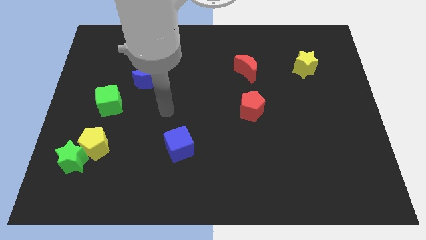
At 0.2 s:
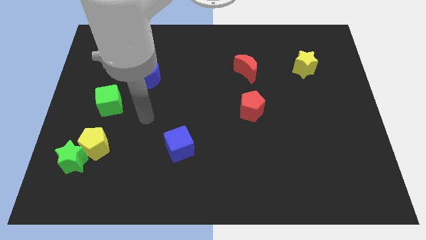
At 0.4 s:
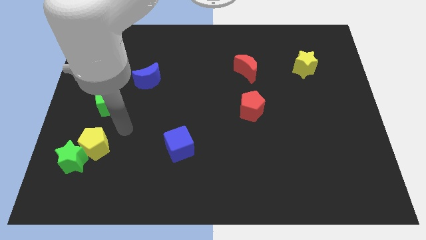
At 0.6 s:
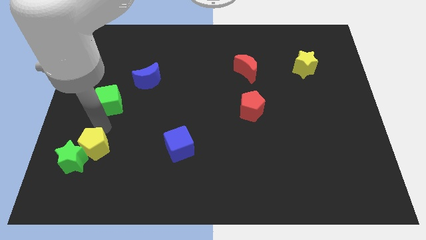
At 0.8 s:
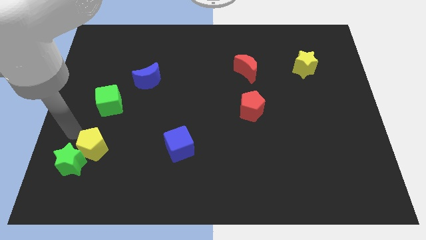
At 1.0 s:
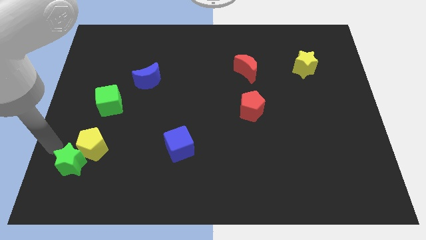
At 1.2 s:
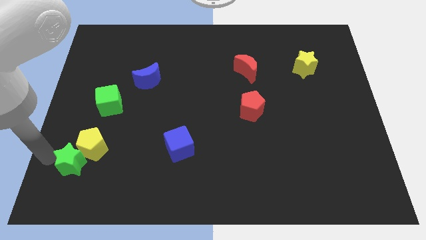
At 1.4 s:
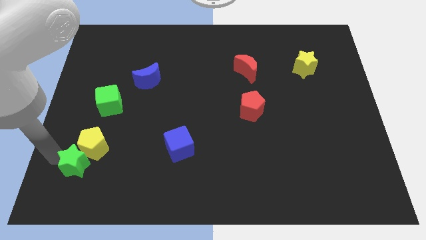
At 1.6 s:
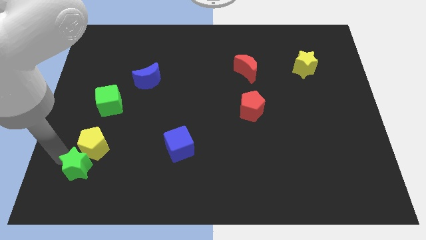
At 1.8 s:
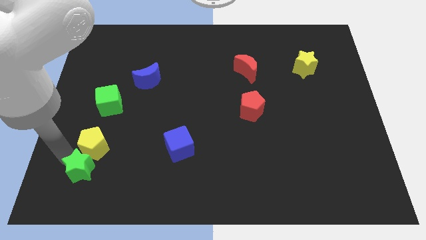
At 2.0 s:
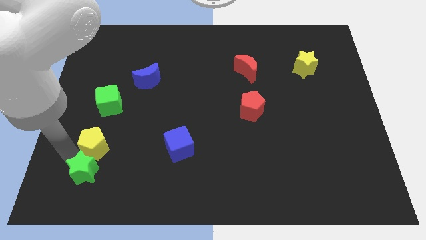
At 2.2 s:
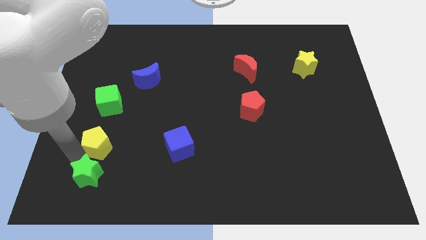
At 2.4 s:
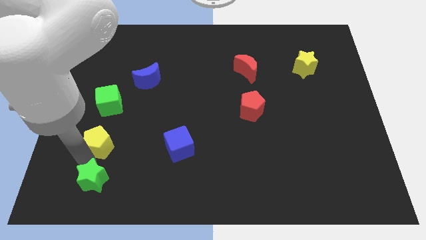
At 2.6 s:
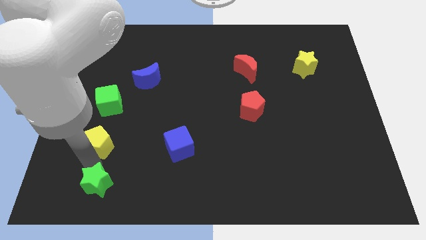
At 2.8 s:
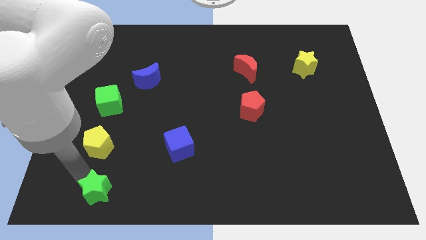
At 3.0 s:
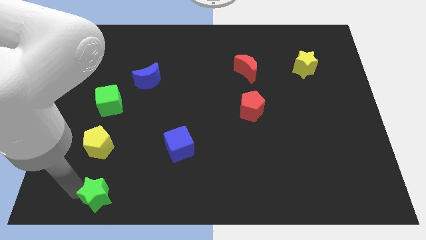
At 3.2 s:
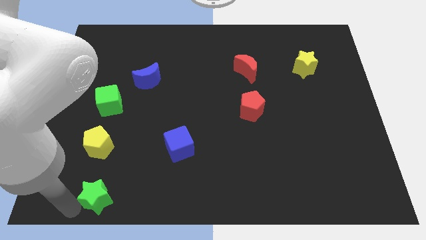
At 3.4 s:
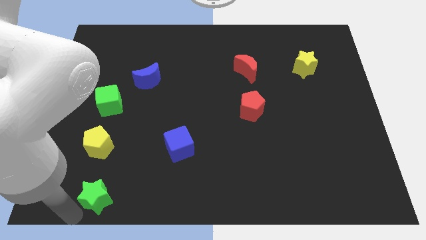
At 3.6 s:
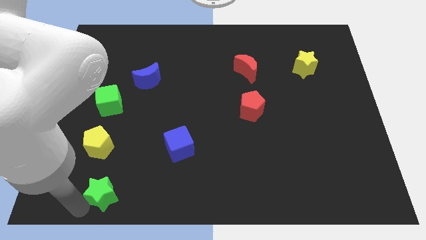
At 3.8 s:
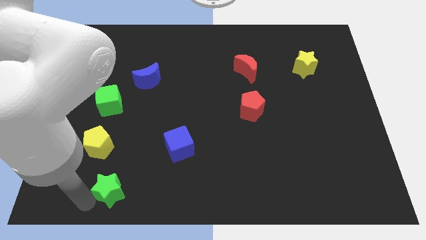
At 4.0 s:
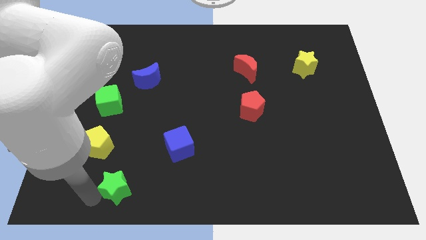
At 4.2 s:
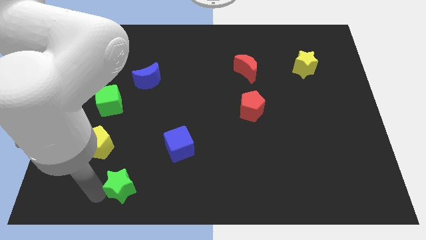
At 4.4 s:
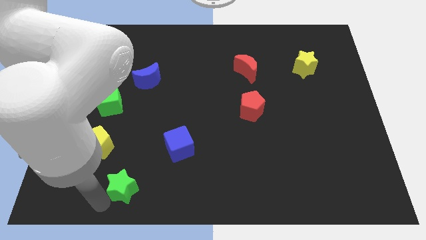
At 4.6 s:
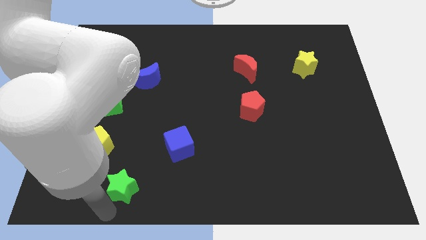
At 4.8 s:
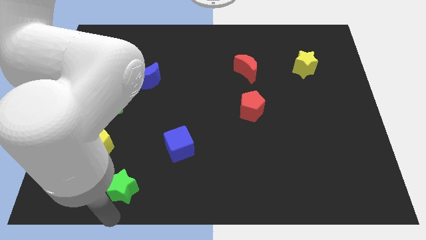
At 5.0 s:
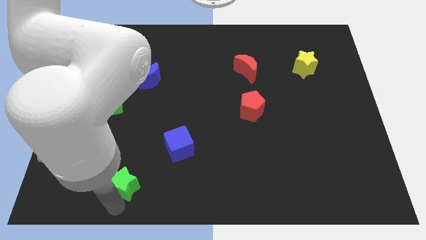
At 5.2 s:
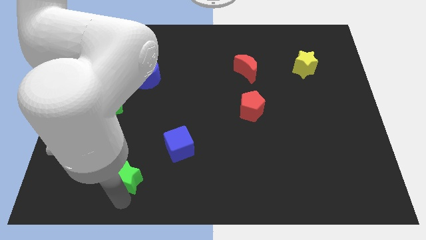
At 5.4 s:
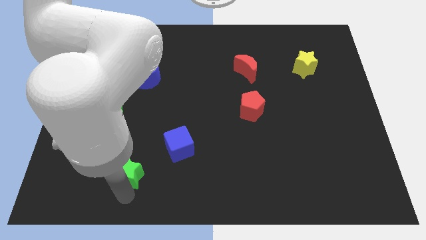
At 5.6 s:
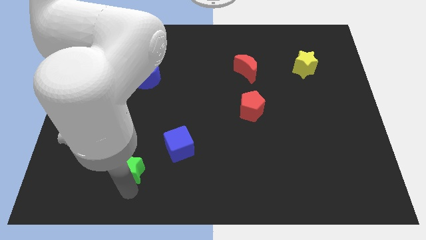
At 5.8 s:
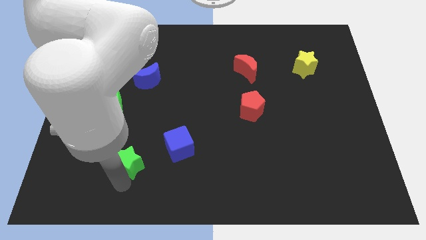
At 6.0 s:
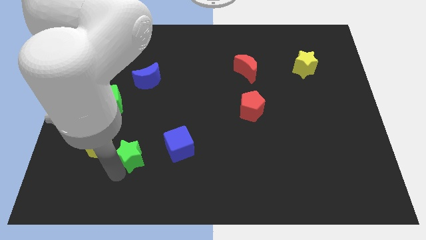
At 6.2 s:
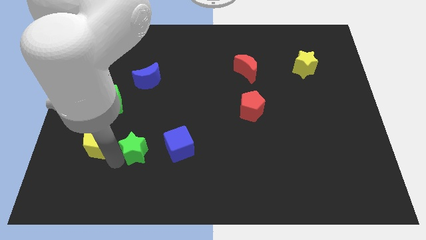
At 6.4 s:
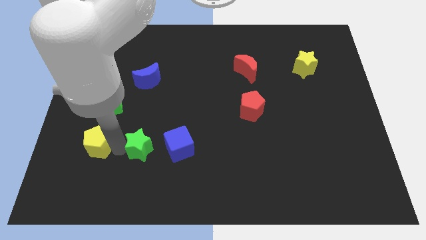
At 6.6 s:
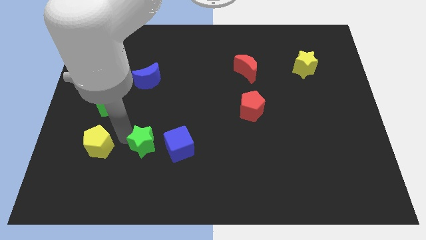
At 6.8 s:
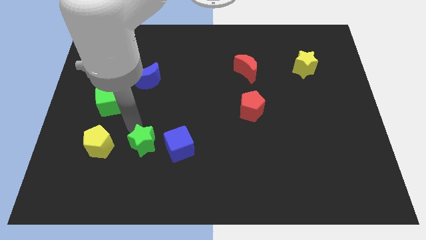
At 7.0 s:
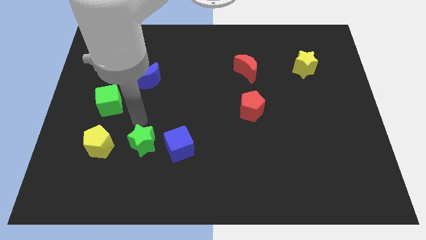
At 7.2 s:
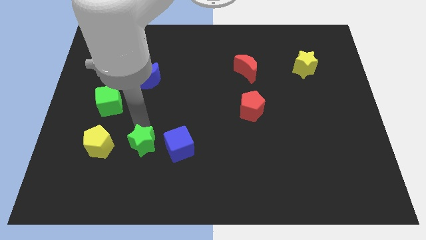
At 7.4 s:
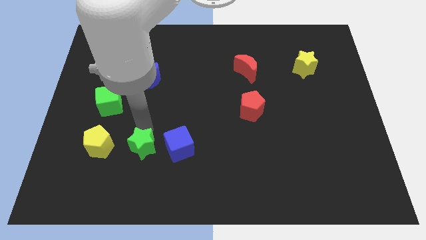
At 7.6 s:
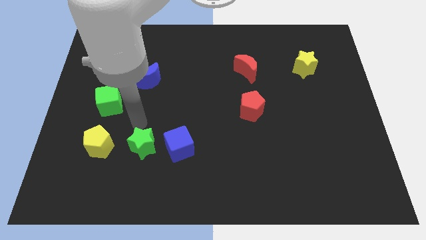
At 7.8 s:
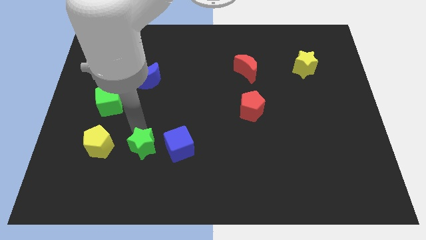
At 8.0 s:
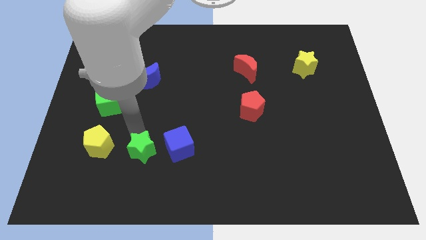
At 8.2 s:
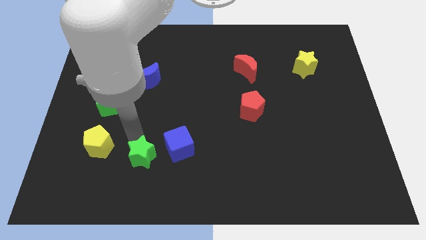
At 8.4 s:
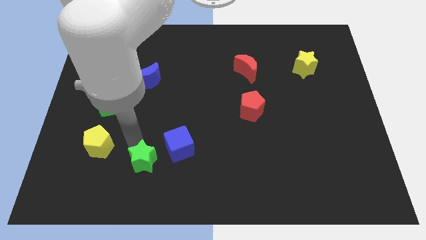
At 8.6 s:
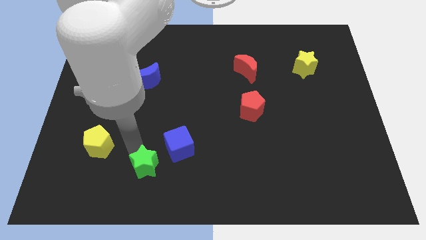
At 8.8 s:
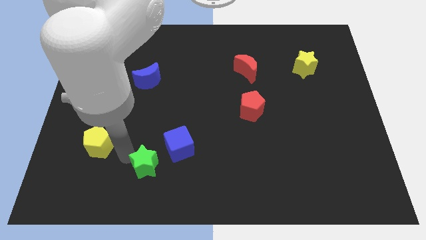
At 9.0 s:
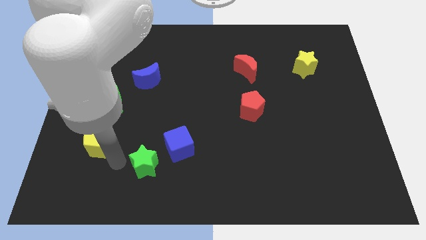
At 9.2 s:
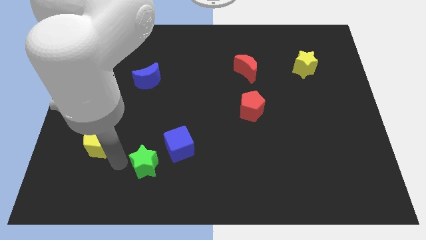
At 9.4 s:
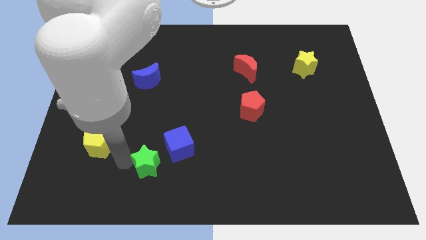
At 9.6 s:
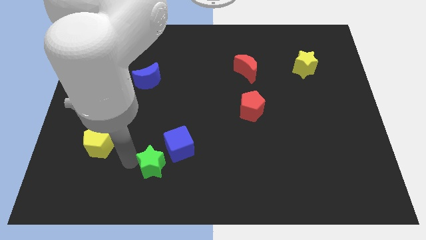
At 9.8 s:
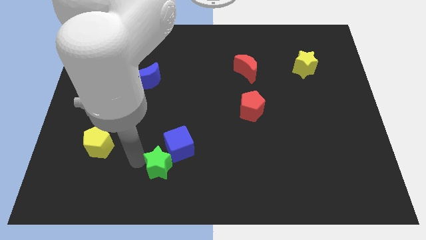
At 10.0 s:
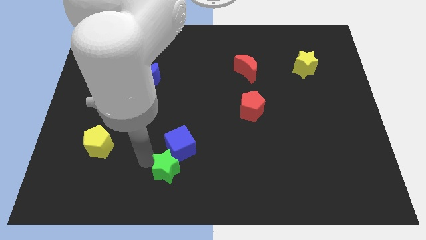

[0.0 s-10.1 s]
slide the green star right

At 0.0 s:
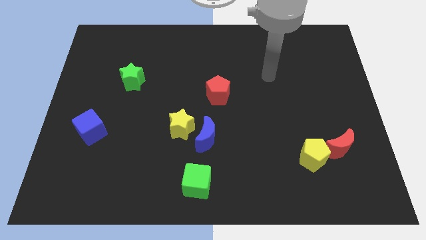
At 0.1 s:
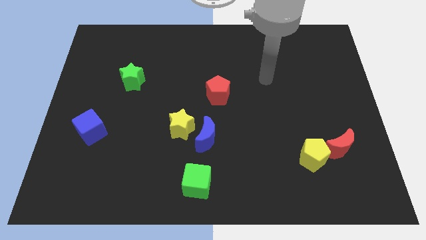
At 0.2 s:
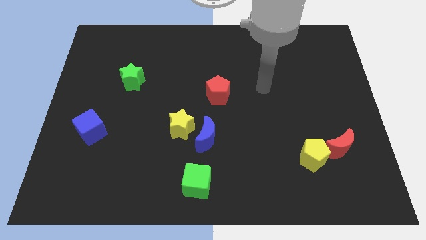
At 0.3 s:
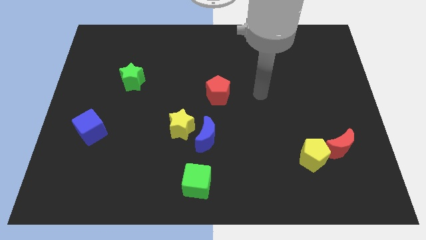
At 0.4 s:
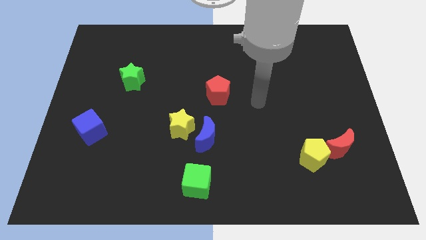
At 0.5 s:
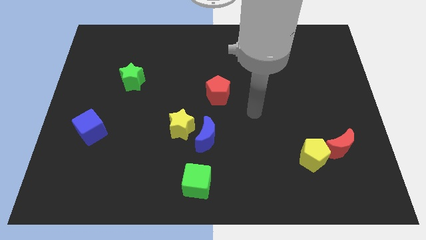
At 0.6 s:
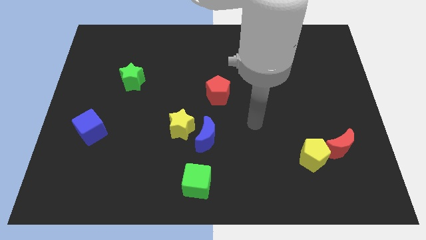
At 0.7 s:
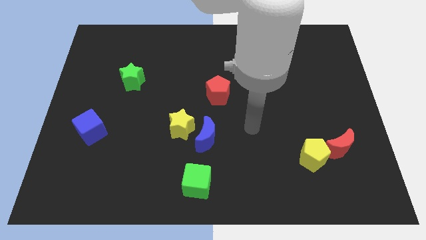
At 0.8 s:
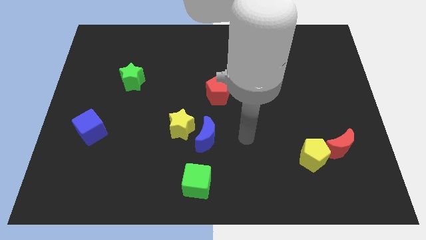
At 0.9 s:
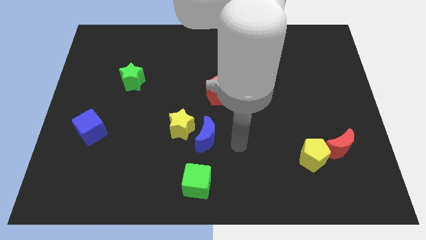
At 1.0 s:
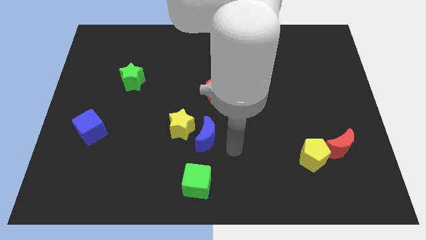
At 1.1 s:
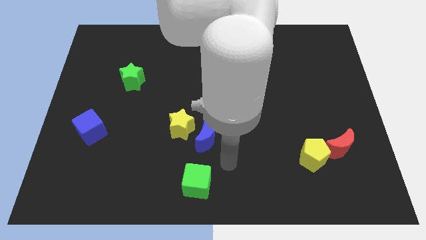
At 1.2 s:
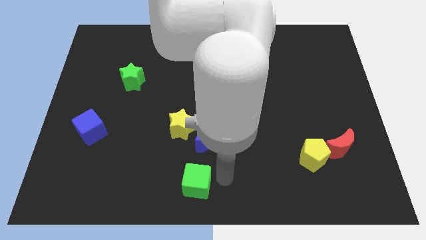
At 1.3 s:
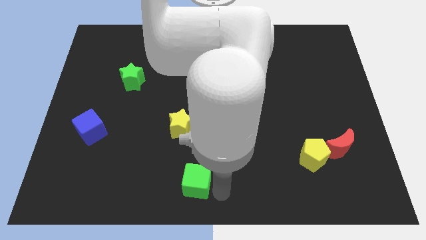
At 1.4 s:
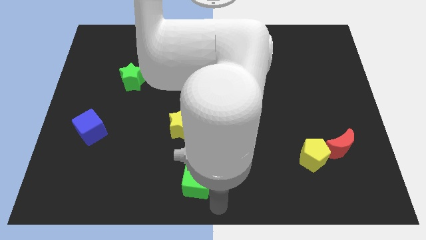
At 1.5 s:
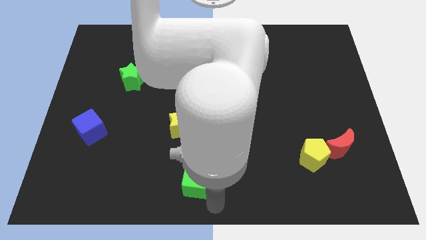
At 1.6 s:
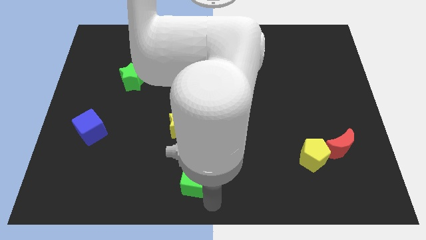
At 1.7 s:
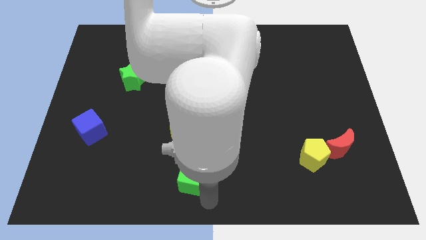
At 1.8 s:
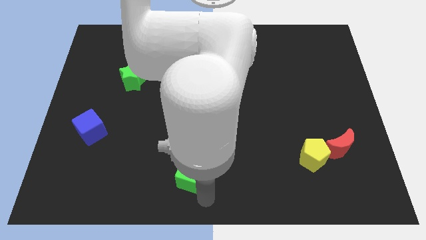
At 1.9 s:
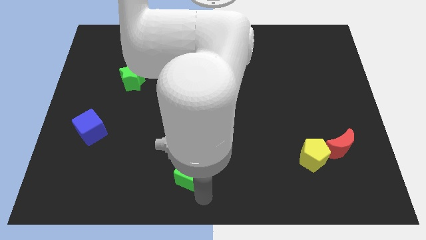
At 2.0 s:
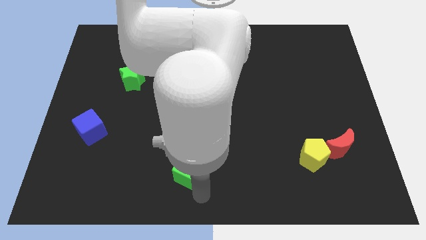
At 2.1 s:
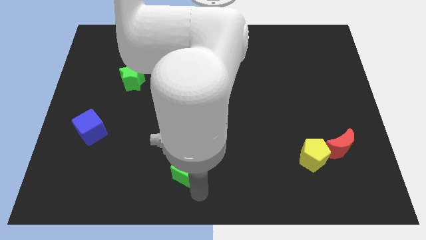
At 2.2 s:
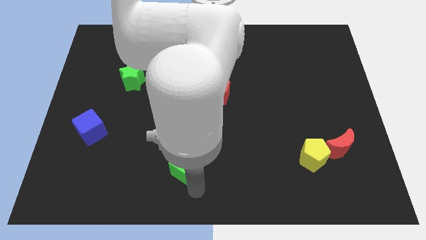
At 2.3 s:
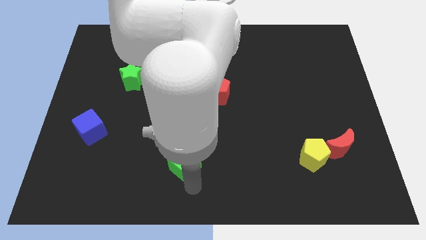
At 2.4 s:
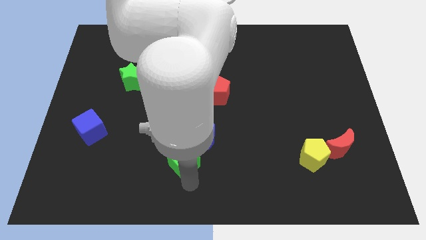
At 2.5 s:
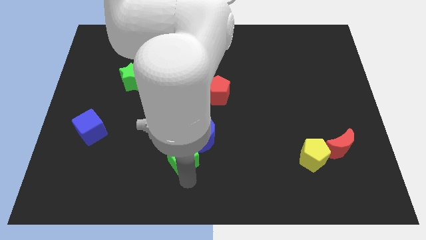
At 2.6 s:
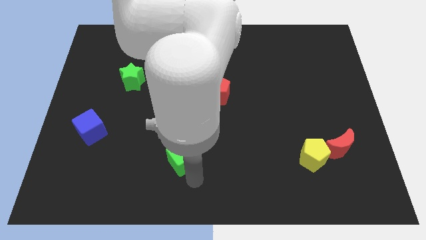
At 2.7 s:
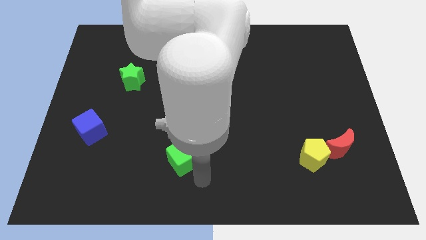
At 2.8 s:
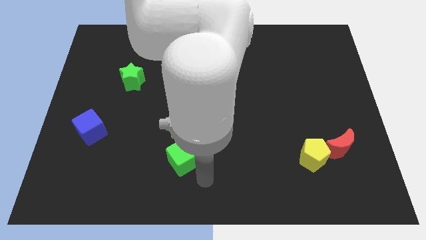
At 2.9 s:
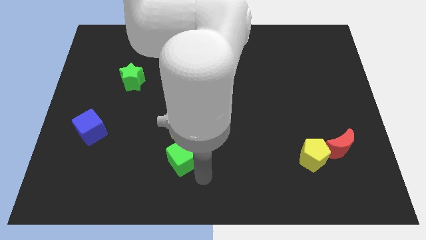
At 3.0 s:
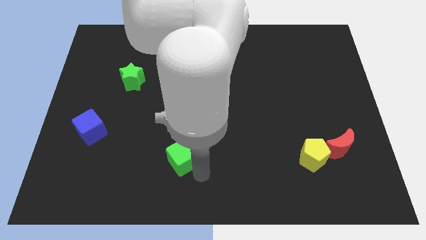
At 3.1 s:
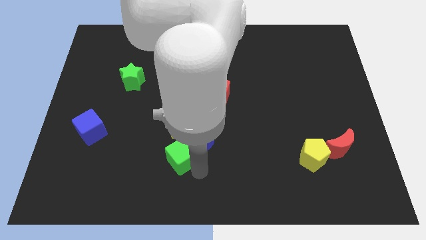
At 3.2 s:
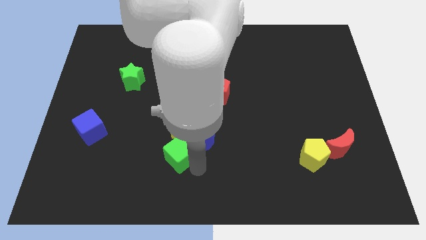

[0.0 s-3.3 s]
push the green cube up and left slightly
